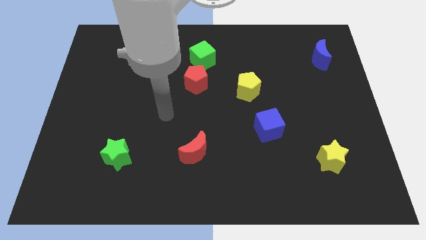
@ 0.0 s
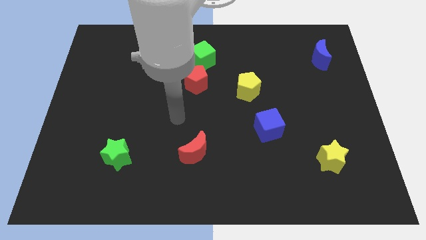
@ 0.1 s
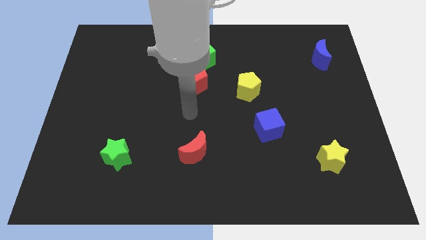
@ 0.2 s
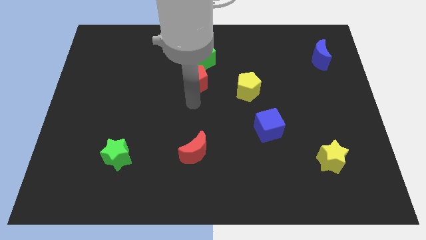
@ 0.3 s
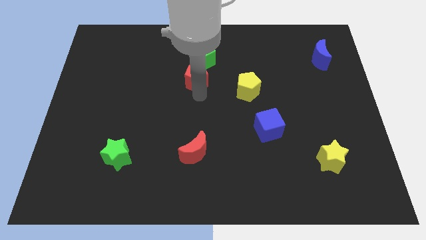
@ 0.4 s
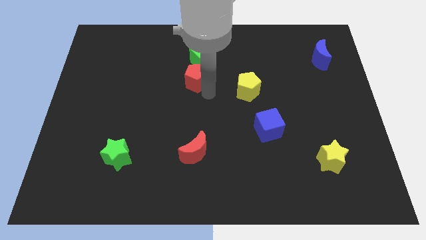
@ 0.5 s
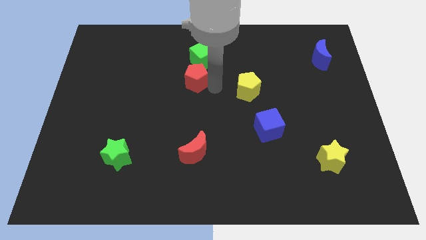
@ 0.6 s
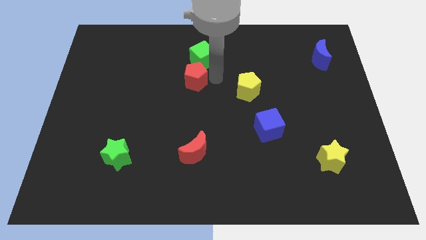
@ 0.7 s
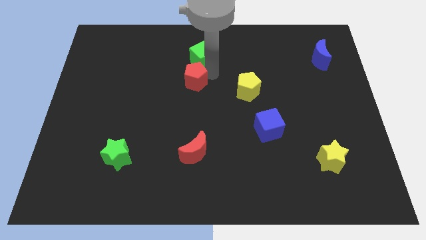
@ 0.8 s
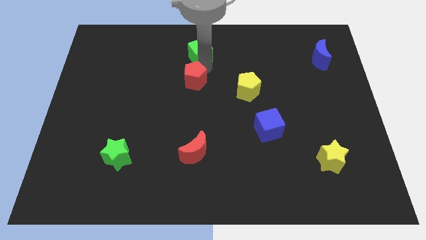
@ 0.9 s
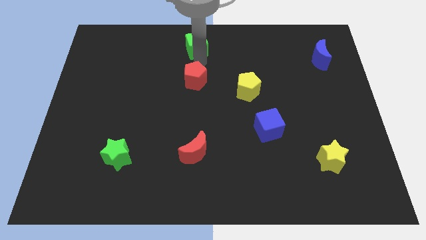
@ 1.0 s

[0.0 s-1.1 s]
pull the red pentagon apart from the green cube

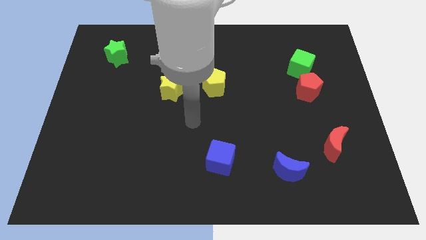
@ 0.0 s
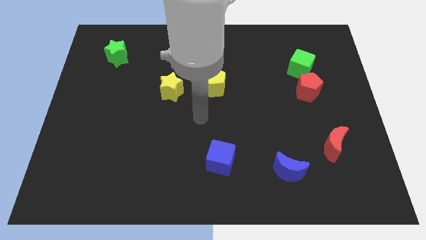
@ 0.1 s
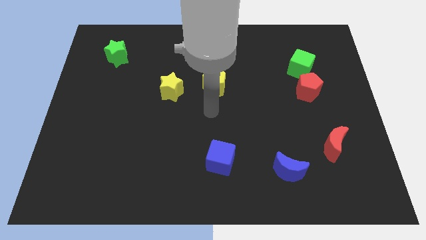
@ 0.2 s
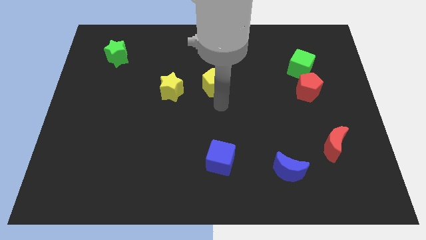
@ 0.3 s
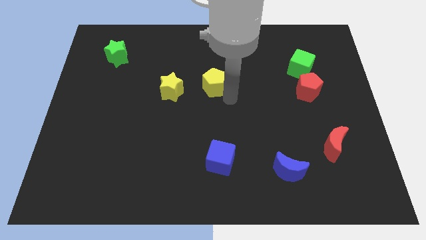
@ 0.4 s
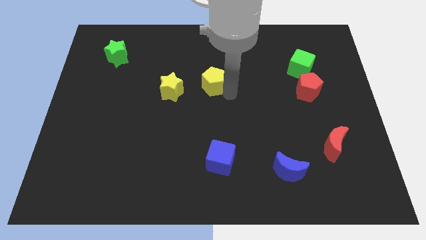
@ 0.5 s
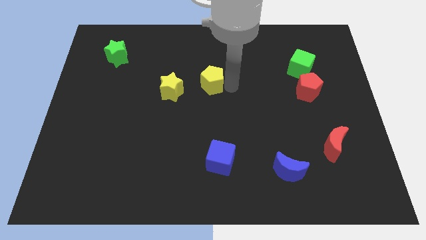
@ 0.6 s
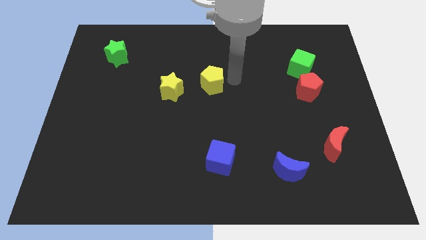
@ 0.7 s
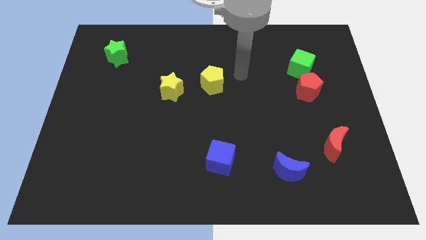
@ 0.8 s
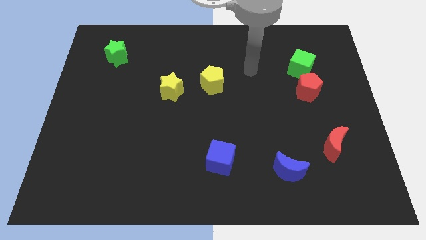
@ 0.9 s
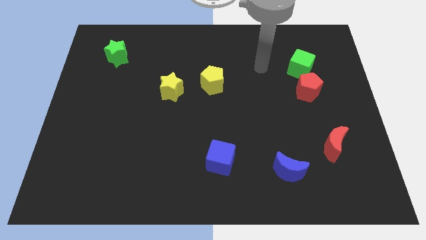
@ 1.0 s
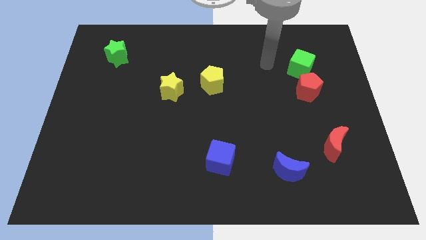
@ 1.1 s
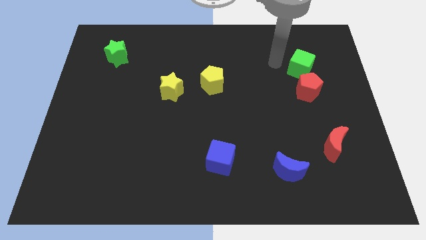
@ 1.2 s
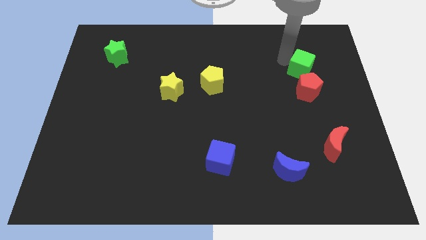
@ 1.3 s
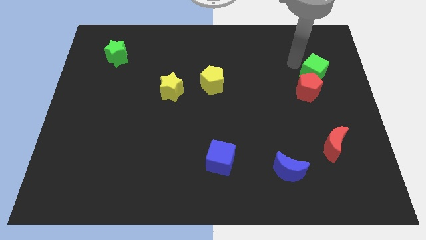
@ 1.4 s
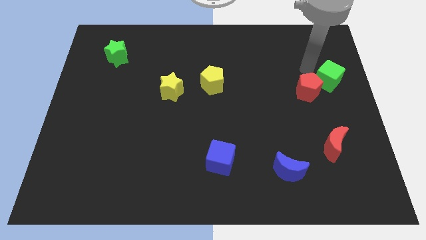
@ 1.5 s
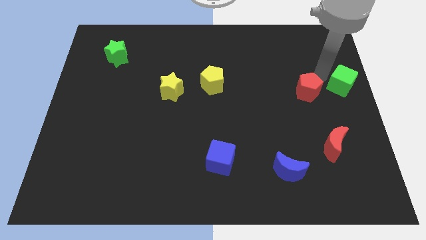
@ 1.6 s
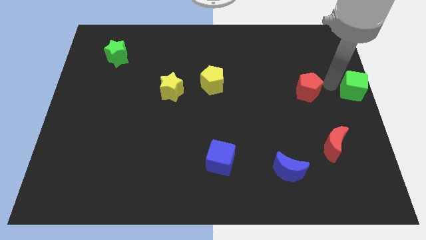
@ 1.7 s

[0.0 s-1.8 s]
separate the red pentagon from the green cube

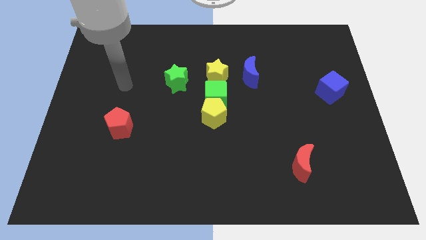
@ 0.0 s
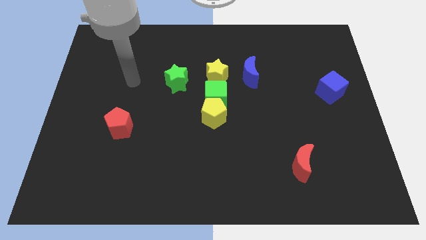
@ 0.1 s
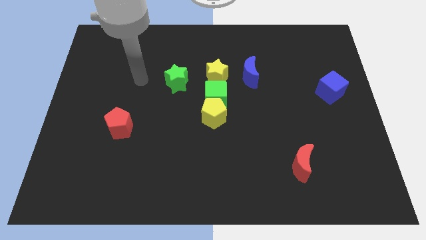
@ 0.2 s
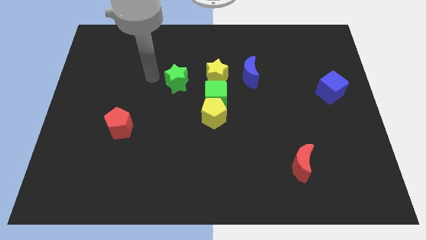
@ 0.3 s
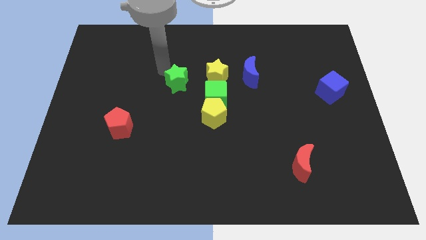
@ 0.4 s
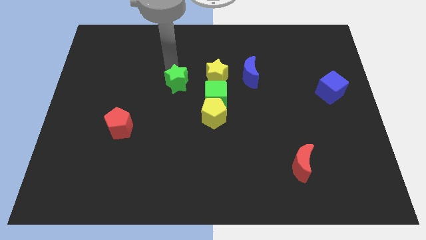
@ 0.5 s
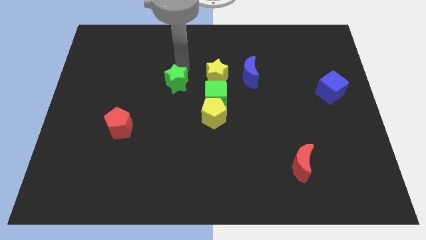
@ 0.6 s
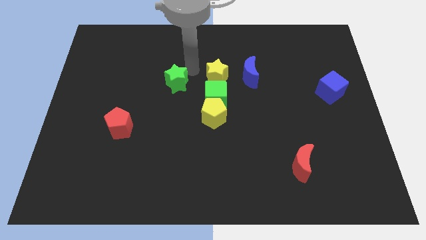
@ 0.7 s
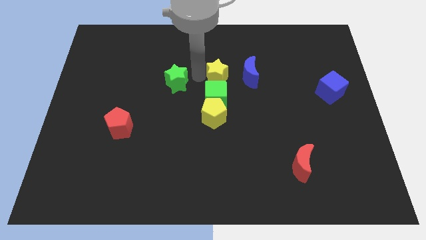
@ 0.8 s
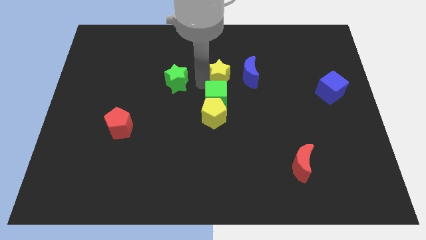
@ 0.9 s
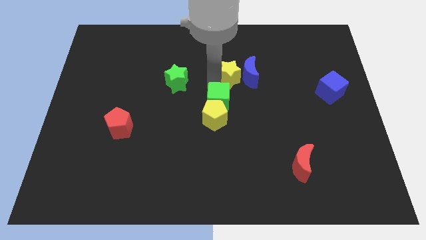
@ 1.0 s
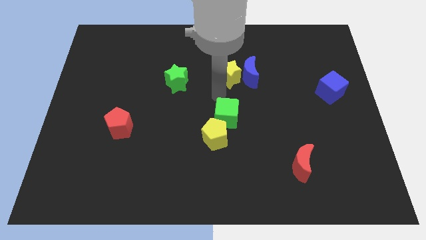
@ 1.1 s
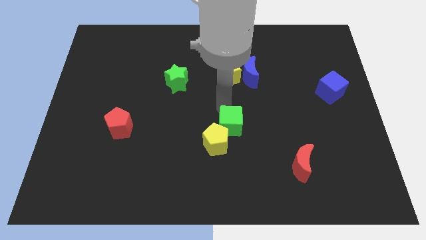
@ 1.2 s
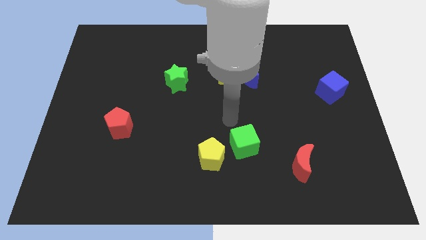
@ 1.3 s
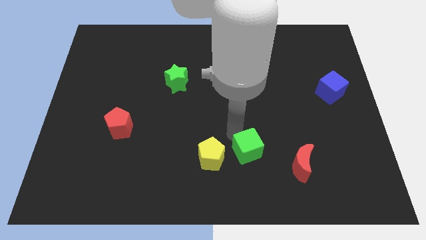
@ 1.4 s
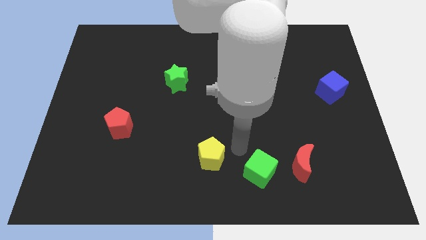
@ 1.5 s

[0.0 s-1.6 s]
move the yellow pentagon away from the green cube

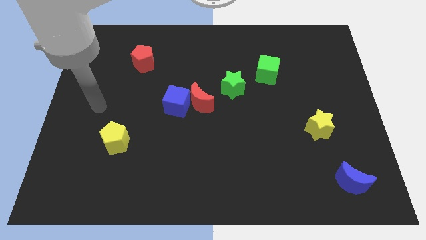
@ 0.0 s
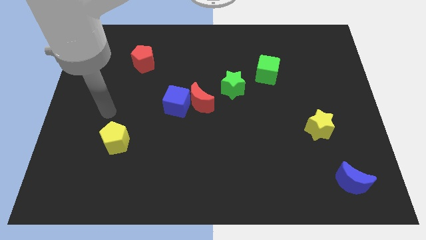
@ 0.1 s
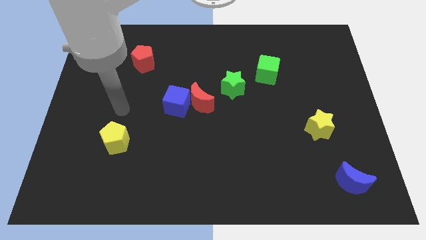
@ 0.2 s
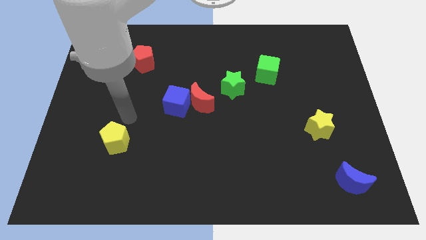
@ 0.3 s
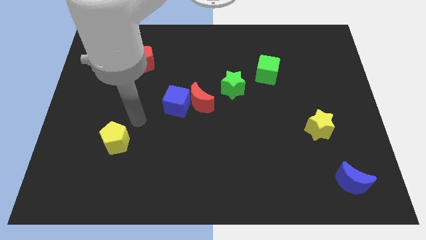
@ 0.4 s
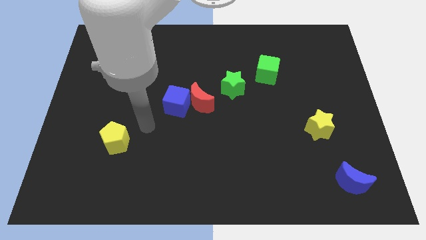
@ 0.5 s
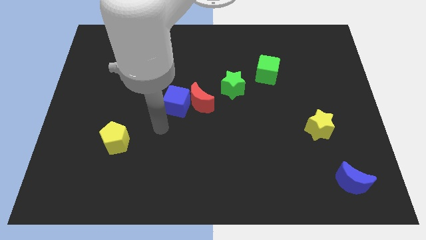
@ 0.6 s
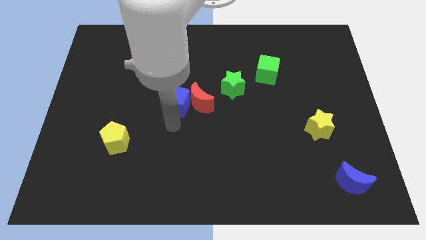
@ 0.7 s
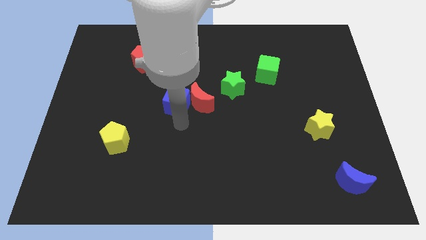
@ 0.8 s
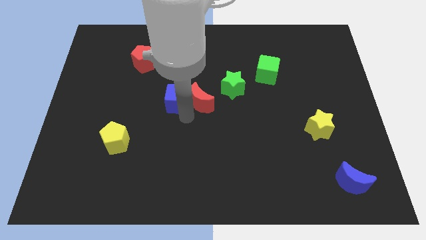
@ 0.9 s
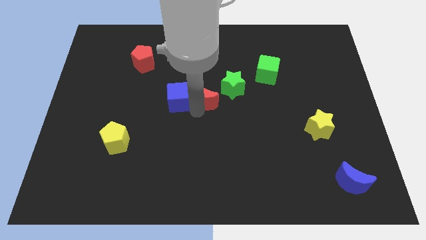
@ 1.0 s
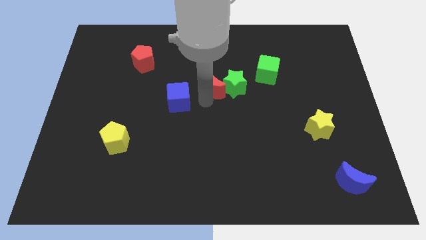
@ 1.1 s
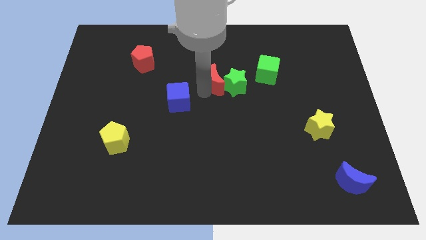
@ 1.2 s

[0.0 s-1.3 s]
separate the blue cube from the red moon

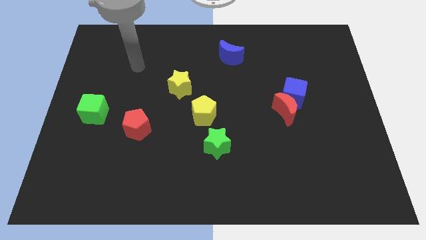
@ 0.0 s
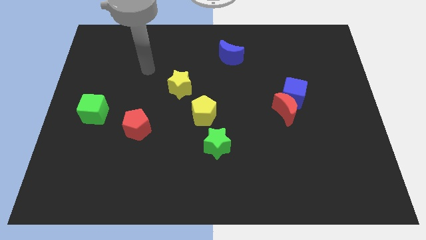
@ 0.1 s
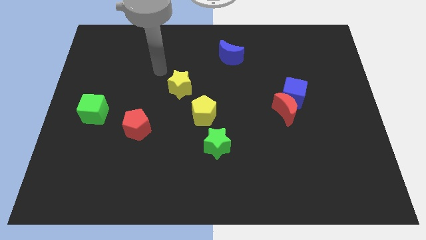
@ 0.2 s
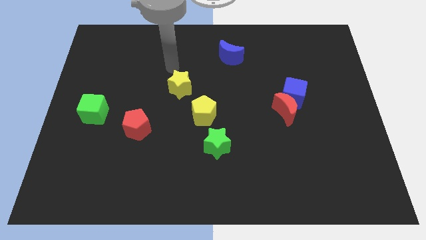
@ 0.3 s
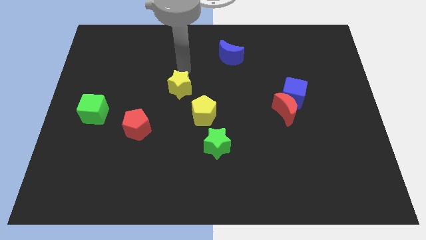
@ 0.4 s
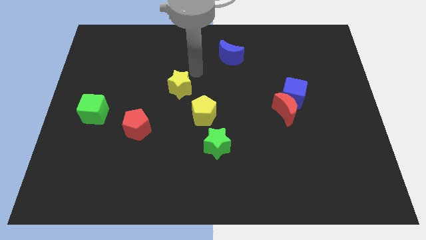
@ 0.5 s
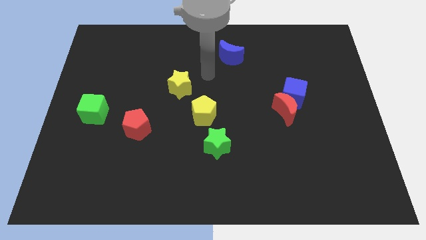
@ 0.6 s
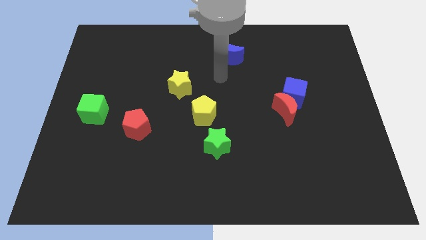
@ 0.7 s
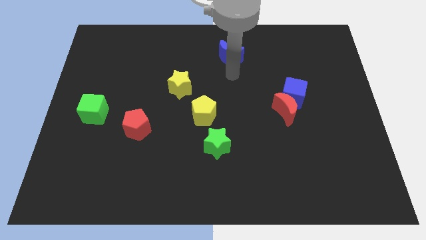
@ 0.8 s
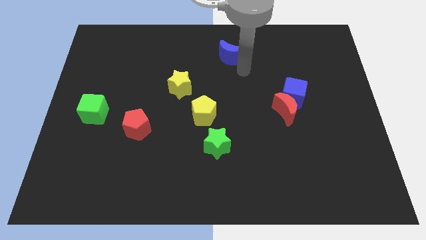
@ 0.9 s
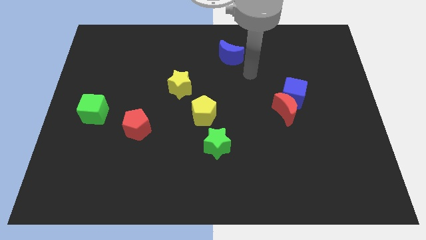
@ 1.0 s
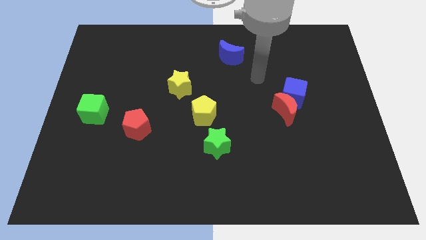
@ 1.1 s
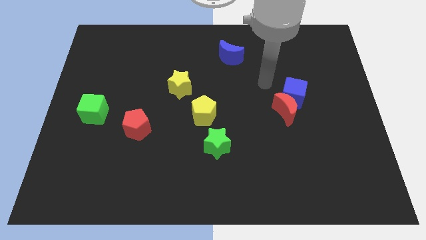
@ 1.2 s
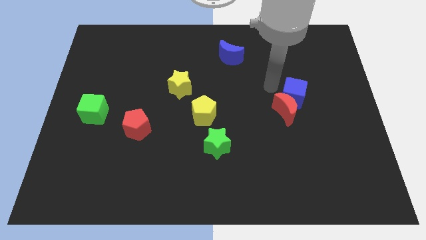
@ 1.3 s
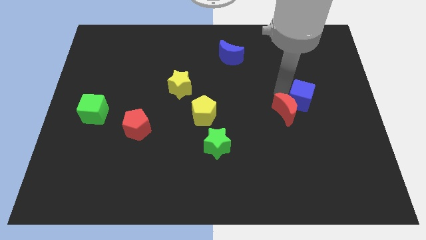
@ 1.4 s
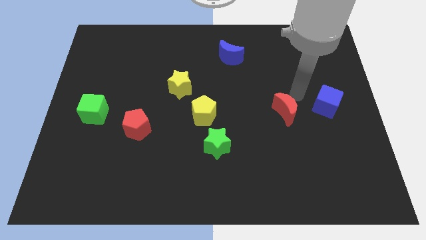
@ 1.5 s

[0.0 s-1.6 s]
pull the red moon apart from the blue cube

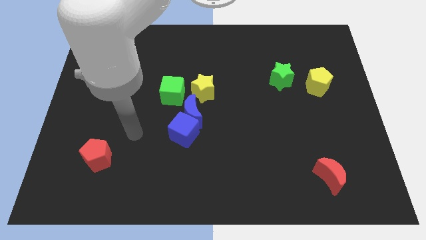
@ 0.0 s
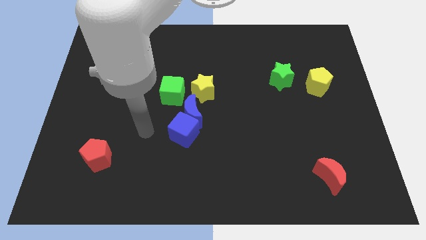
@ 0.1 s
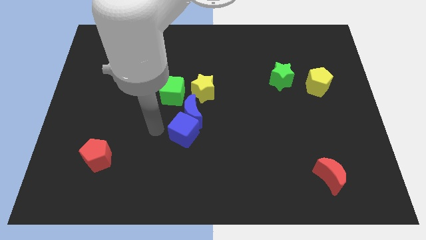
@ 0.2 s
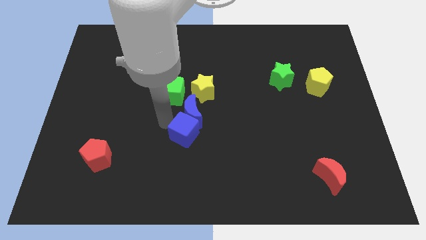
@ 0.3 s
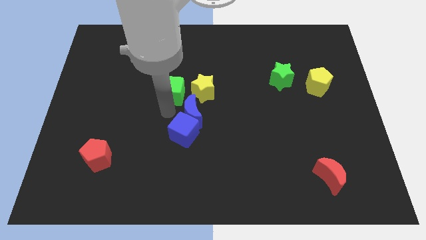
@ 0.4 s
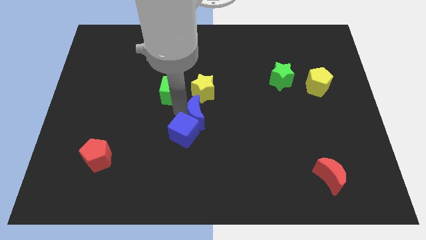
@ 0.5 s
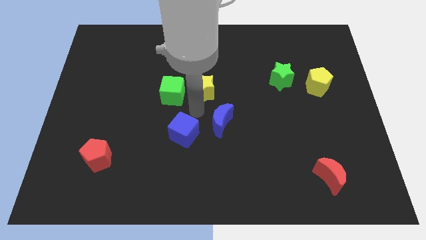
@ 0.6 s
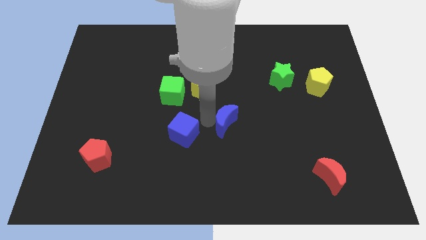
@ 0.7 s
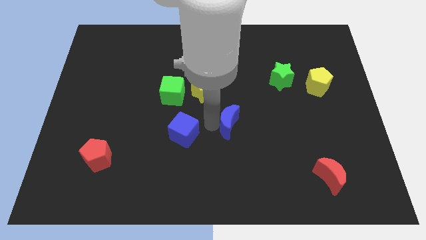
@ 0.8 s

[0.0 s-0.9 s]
move the blue cube away from the blue moon

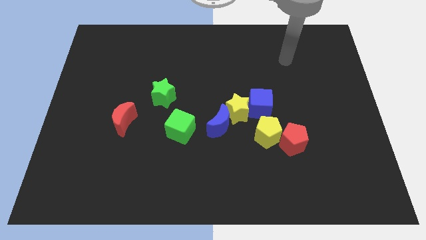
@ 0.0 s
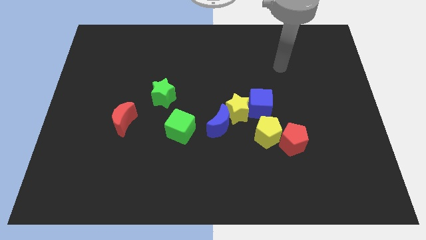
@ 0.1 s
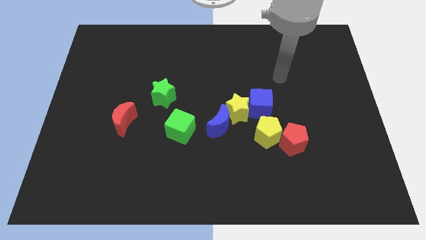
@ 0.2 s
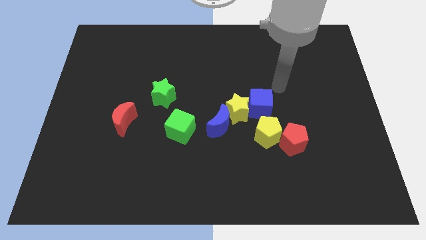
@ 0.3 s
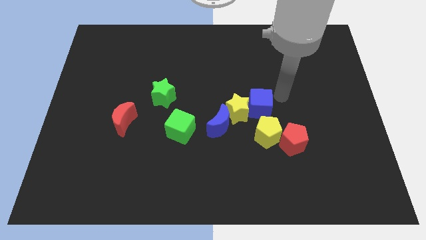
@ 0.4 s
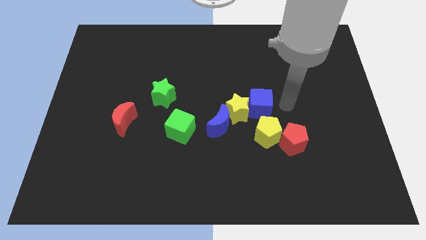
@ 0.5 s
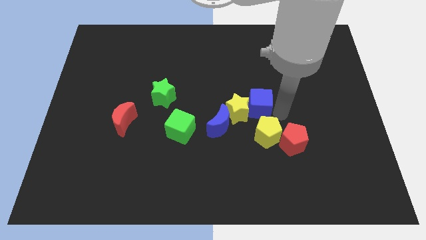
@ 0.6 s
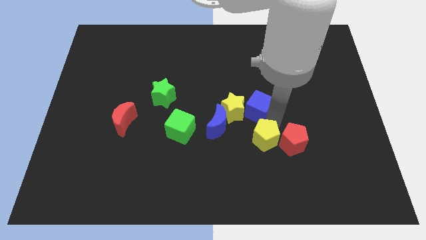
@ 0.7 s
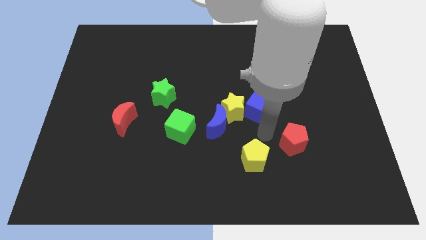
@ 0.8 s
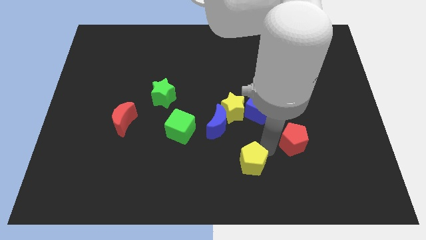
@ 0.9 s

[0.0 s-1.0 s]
pull the red pentagon apart from the yellow pentagon
